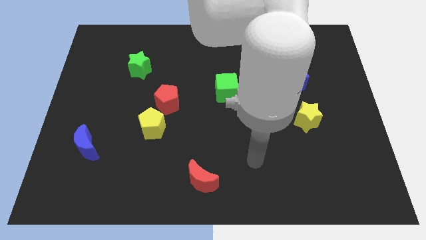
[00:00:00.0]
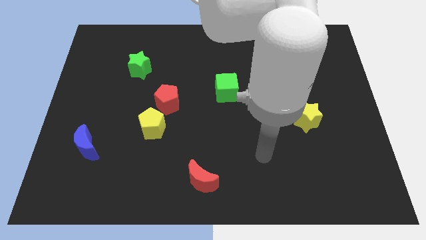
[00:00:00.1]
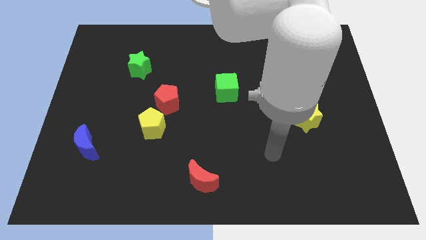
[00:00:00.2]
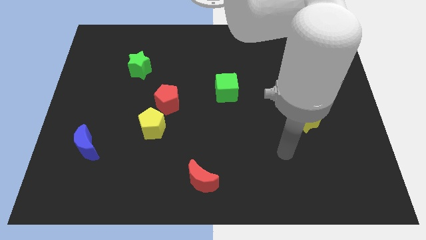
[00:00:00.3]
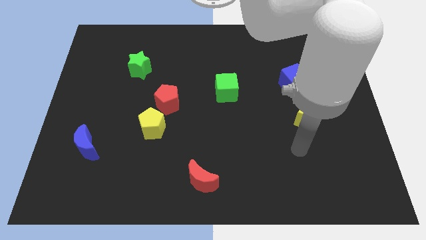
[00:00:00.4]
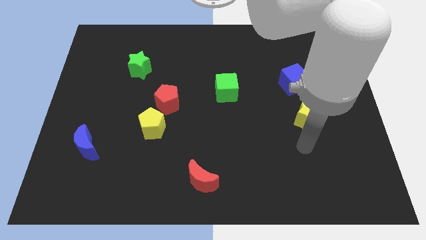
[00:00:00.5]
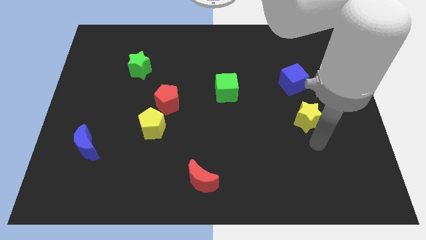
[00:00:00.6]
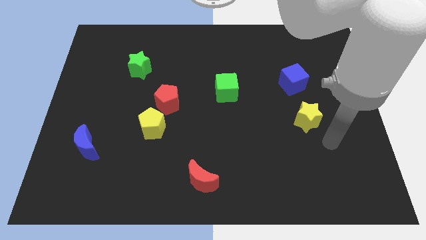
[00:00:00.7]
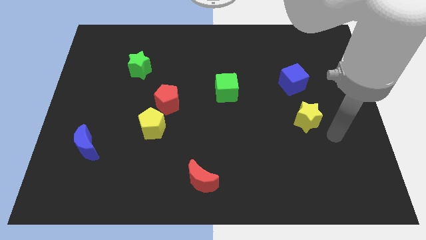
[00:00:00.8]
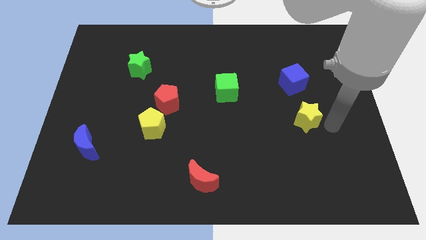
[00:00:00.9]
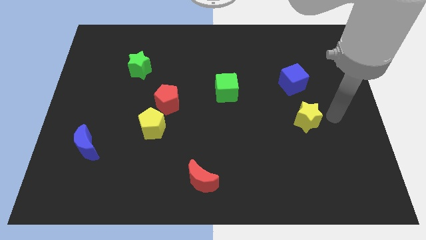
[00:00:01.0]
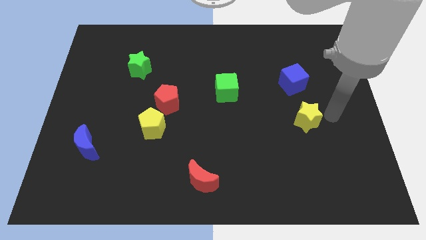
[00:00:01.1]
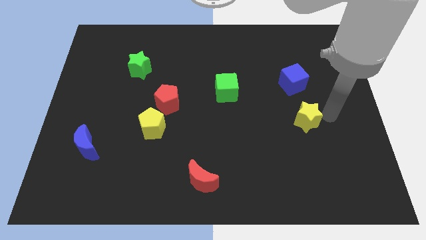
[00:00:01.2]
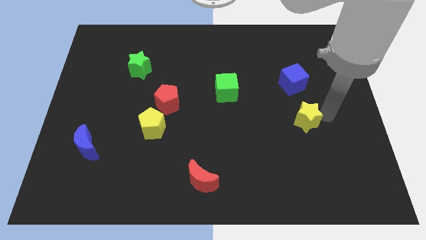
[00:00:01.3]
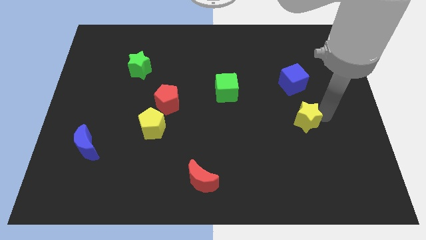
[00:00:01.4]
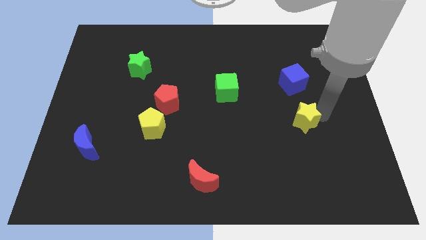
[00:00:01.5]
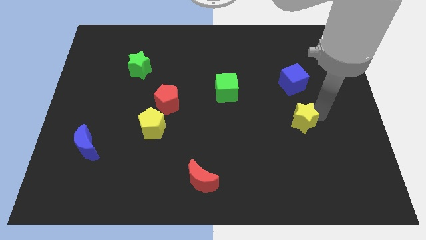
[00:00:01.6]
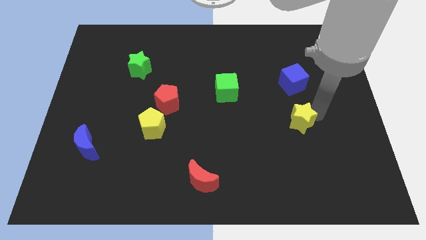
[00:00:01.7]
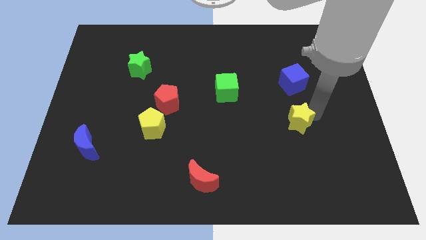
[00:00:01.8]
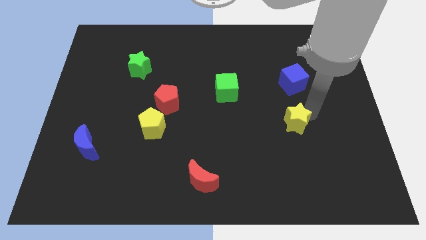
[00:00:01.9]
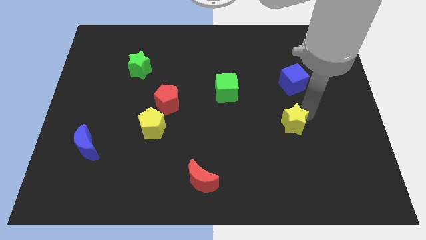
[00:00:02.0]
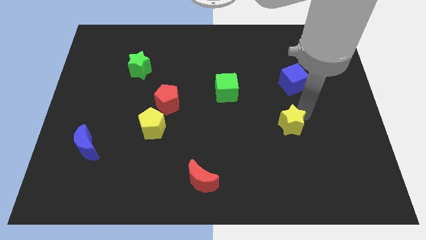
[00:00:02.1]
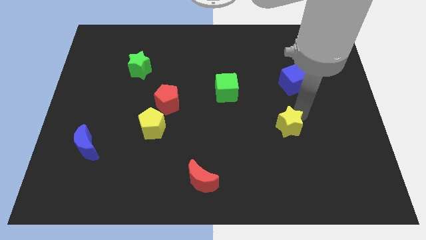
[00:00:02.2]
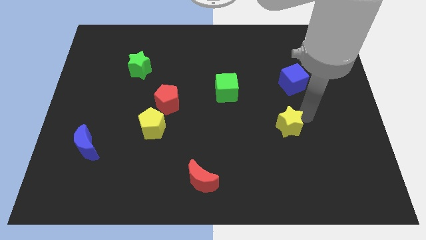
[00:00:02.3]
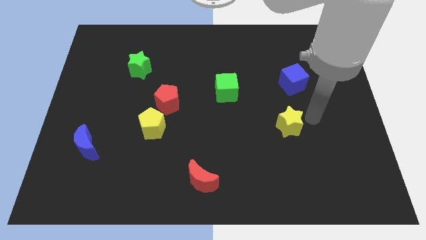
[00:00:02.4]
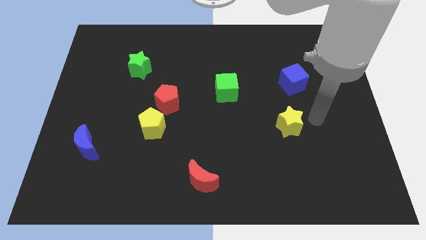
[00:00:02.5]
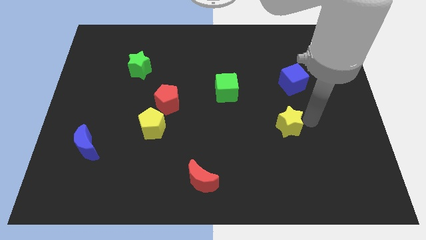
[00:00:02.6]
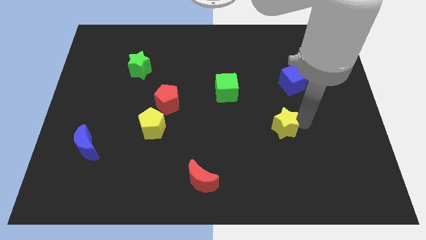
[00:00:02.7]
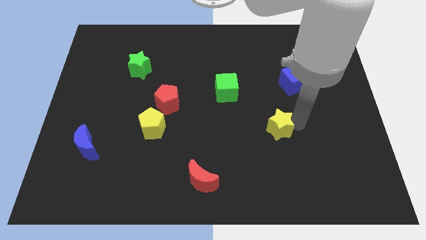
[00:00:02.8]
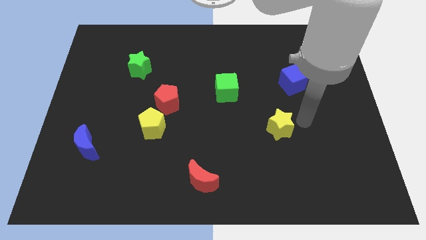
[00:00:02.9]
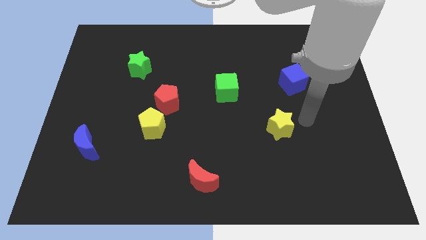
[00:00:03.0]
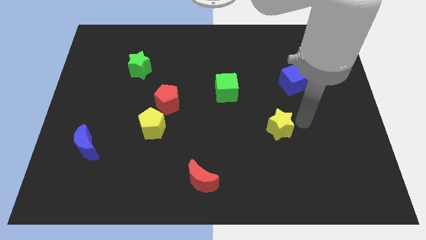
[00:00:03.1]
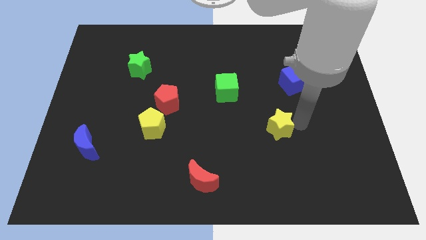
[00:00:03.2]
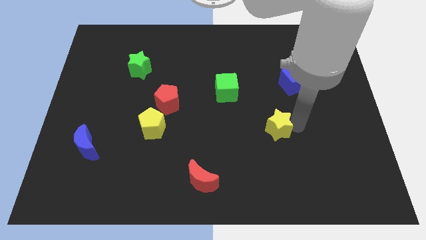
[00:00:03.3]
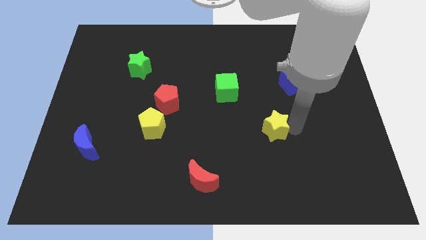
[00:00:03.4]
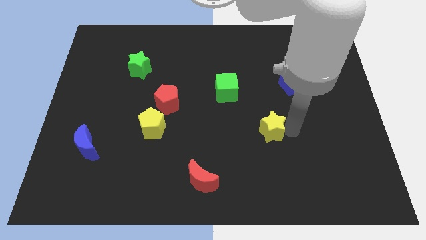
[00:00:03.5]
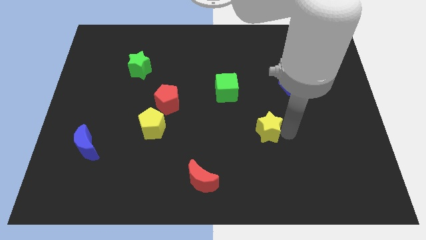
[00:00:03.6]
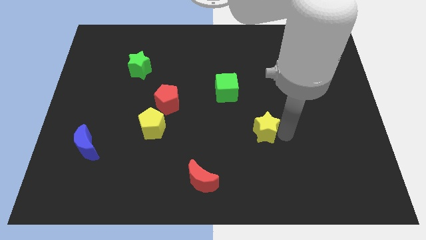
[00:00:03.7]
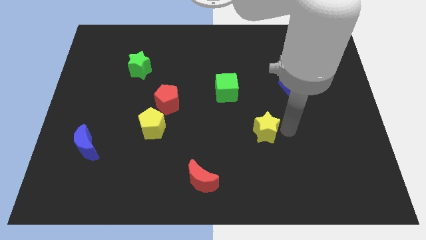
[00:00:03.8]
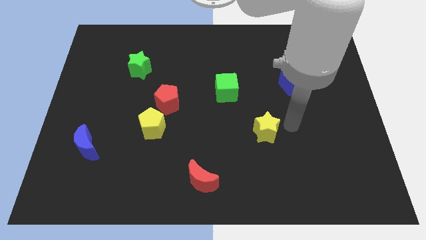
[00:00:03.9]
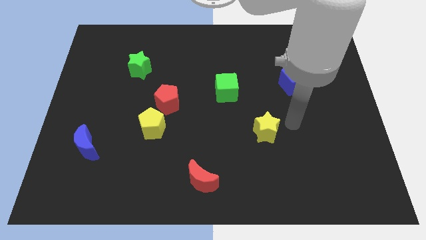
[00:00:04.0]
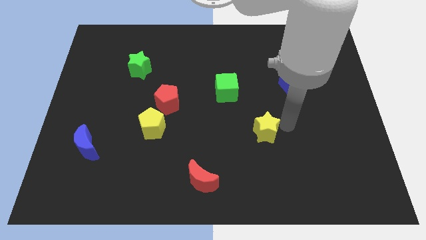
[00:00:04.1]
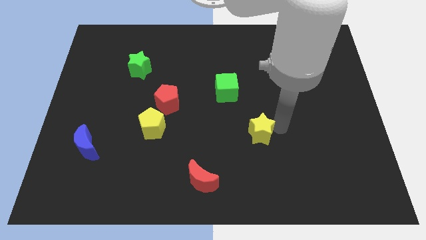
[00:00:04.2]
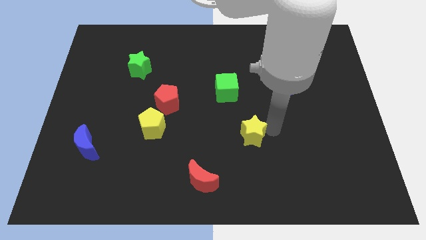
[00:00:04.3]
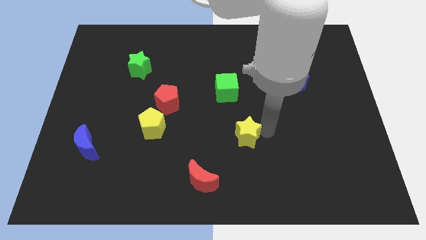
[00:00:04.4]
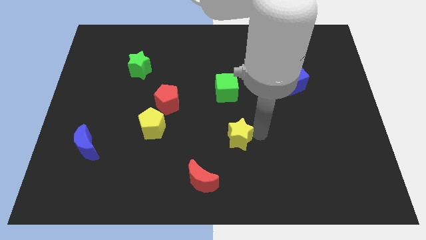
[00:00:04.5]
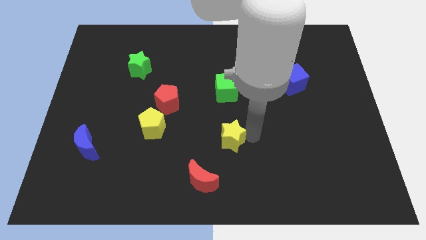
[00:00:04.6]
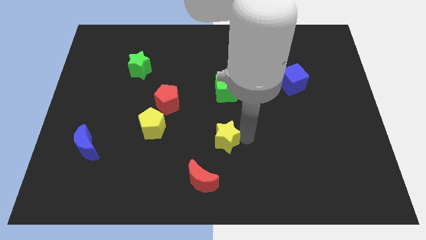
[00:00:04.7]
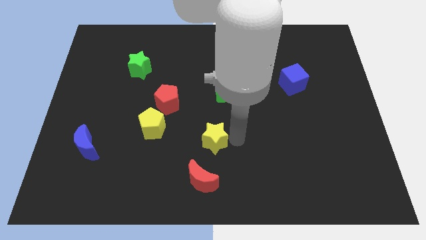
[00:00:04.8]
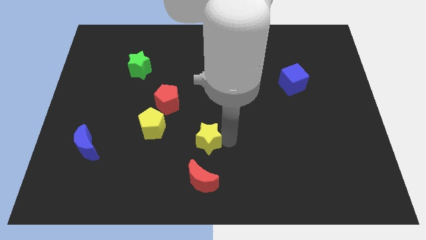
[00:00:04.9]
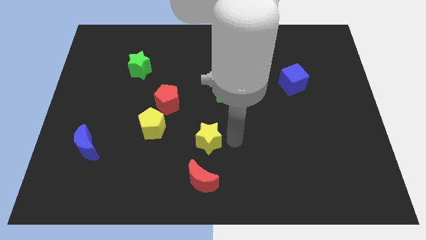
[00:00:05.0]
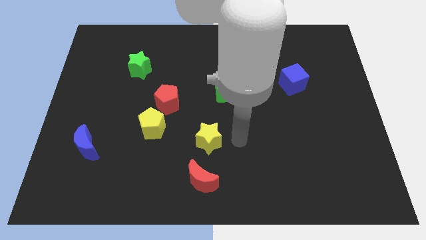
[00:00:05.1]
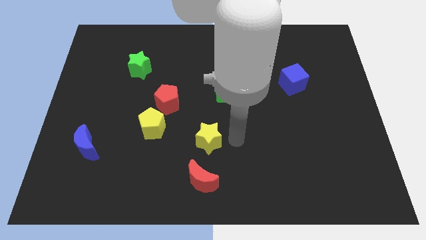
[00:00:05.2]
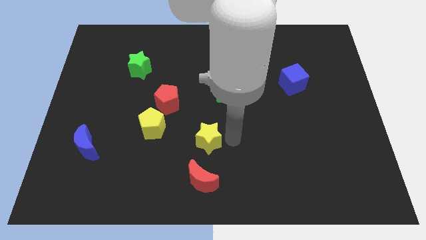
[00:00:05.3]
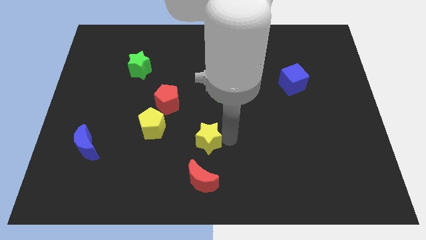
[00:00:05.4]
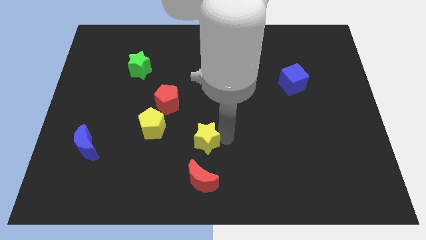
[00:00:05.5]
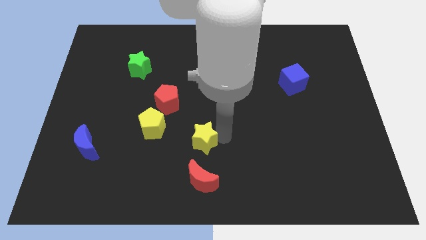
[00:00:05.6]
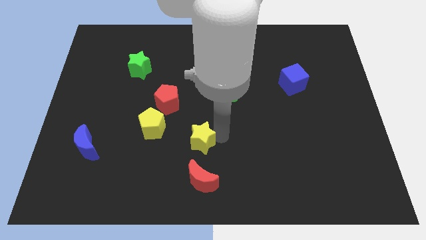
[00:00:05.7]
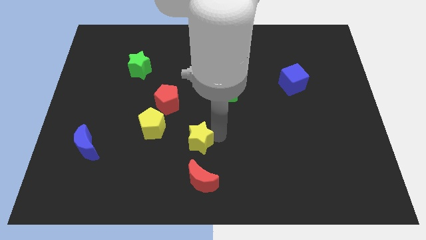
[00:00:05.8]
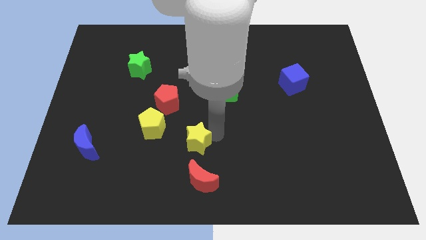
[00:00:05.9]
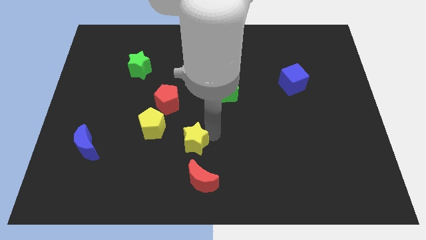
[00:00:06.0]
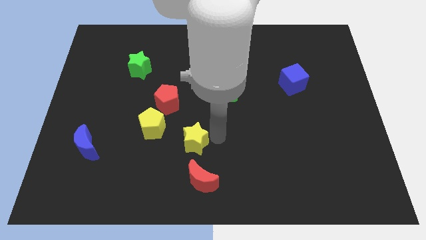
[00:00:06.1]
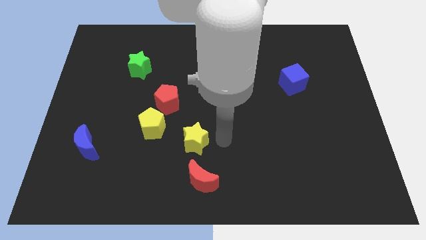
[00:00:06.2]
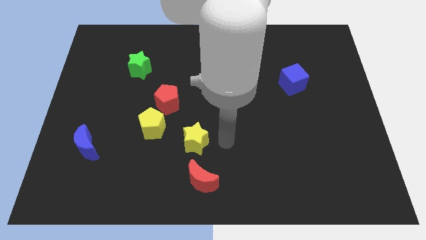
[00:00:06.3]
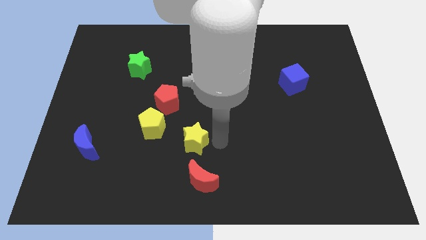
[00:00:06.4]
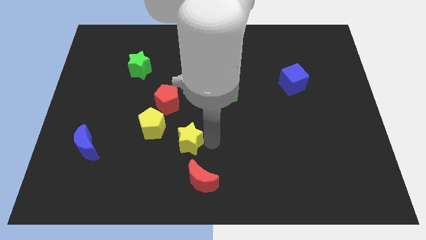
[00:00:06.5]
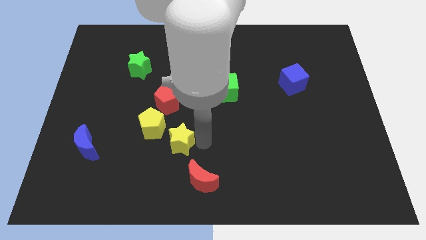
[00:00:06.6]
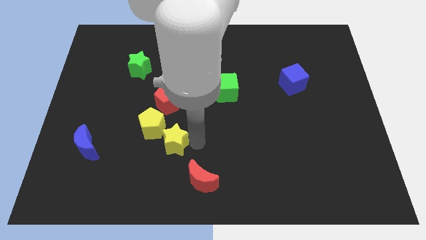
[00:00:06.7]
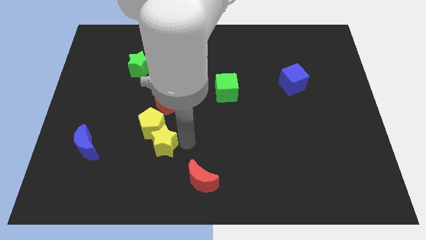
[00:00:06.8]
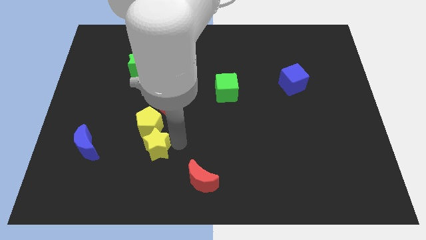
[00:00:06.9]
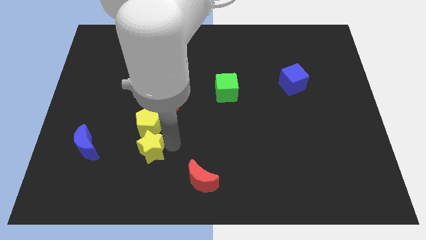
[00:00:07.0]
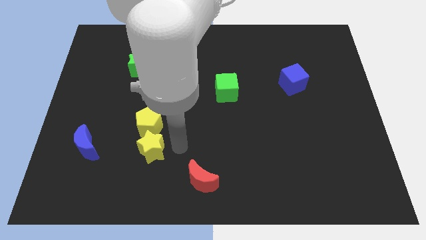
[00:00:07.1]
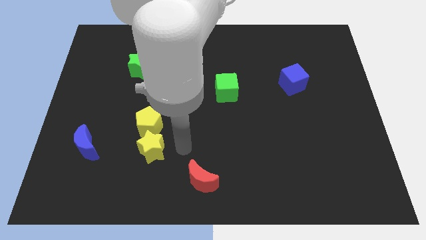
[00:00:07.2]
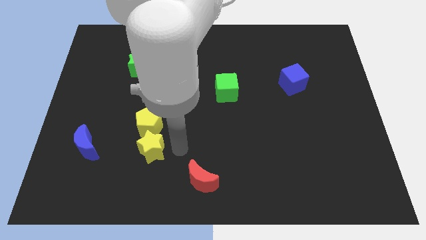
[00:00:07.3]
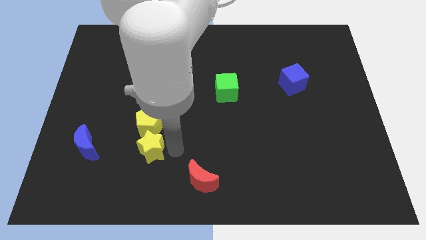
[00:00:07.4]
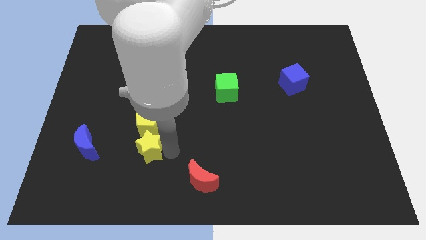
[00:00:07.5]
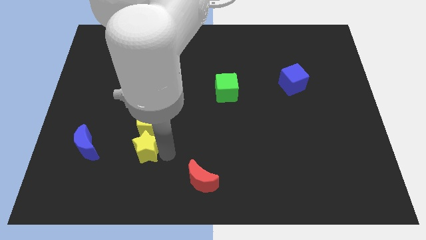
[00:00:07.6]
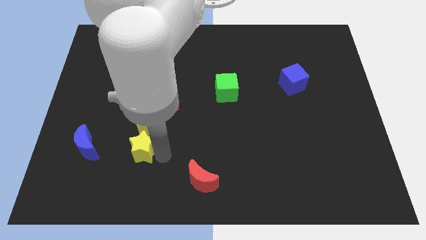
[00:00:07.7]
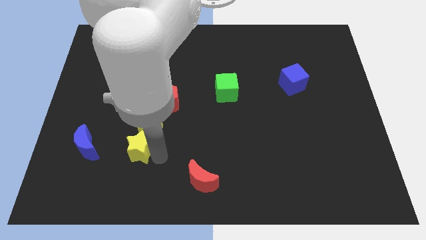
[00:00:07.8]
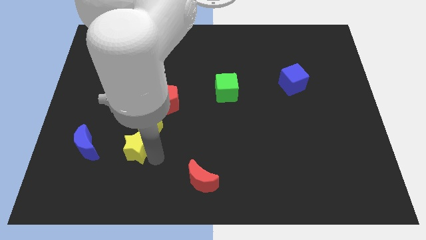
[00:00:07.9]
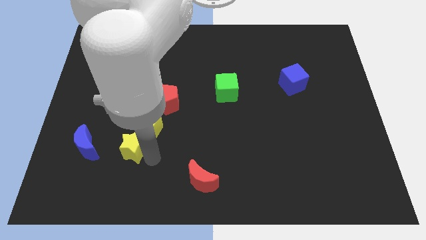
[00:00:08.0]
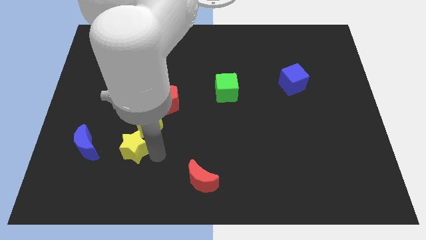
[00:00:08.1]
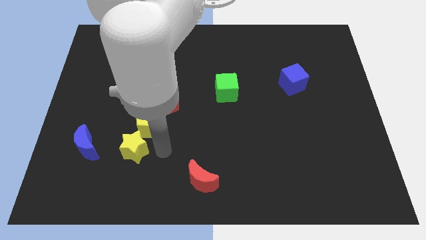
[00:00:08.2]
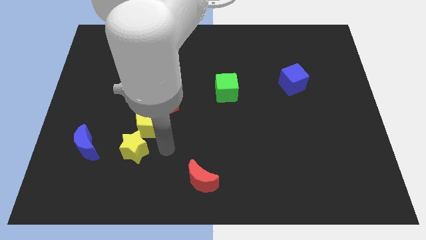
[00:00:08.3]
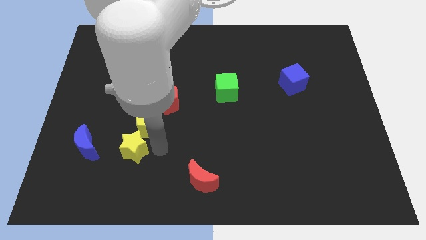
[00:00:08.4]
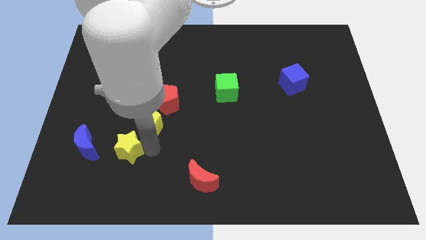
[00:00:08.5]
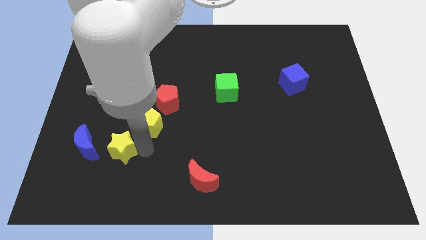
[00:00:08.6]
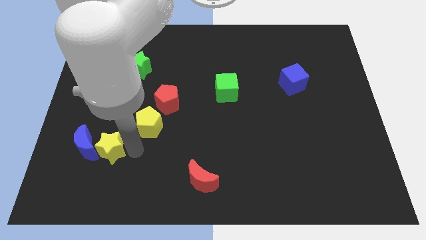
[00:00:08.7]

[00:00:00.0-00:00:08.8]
push the yellow star next to the blue moon
